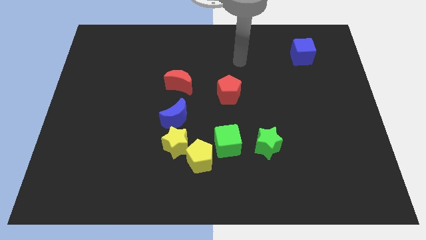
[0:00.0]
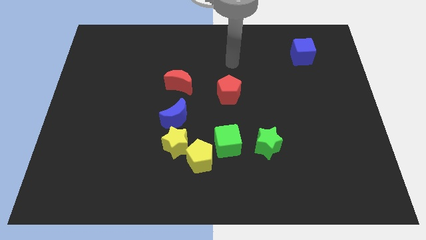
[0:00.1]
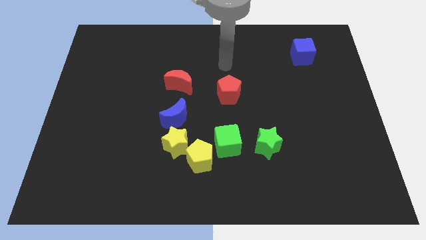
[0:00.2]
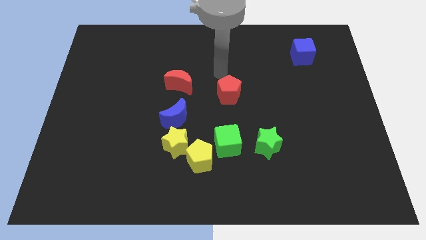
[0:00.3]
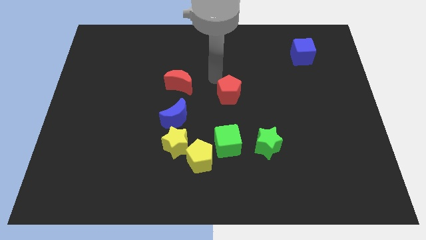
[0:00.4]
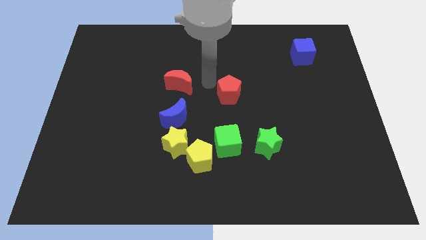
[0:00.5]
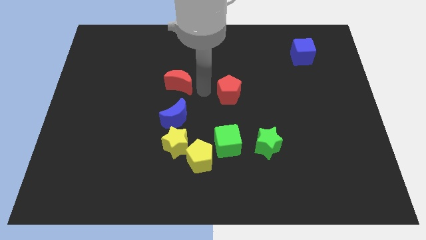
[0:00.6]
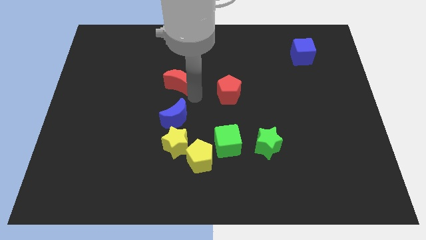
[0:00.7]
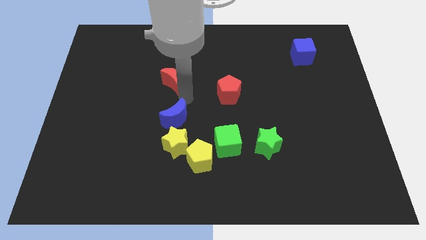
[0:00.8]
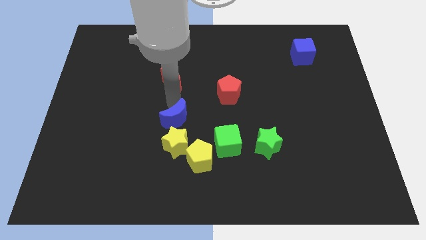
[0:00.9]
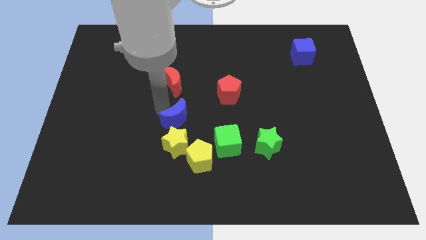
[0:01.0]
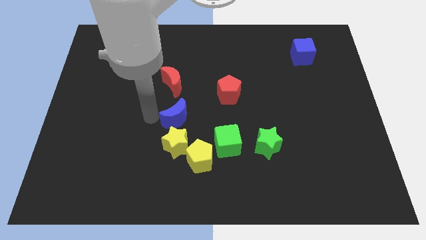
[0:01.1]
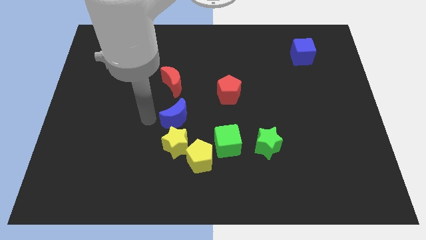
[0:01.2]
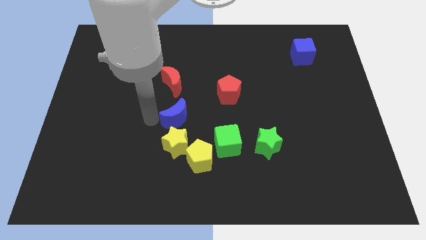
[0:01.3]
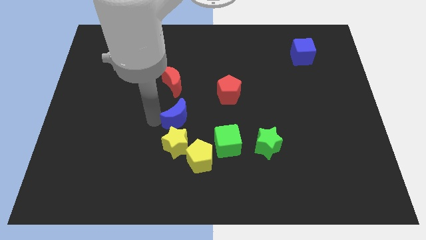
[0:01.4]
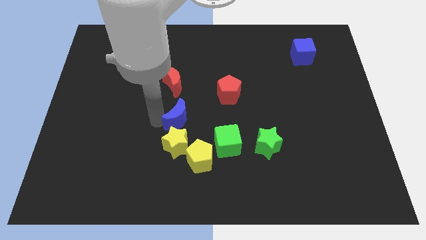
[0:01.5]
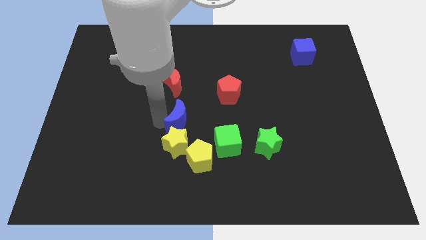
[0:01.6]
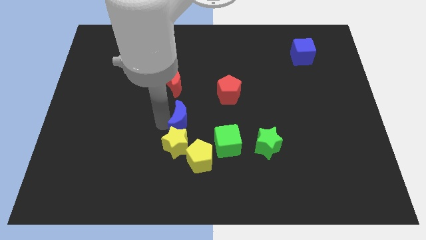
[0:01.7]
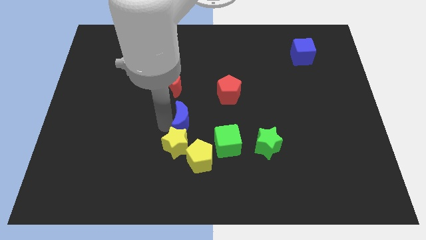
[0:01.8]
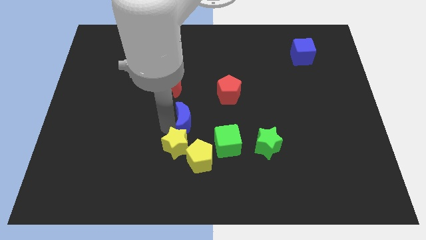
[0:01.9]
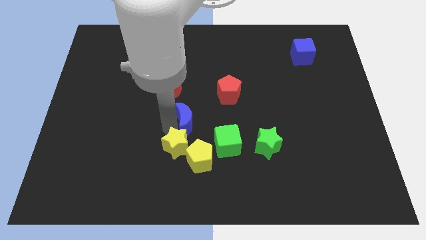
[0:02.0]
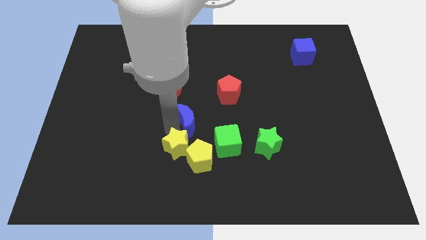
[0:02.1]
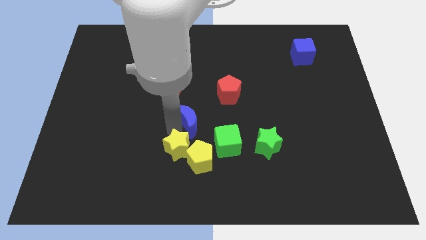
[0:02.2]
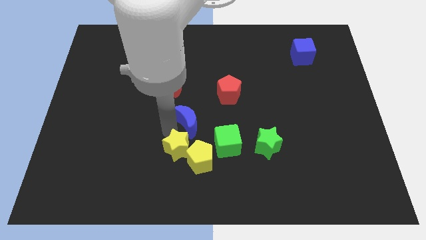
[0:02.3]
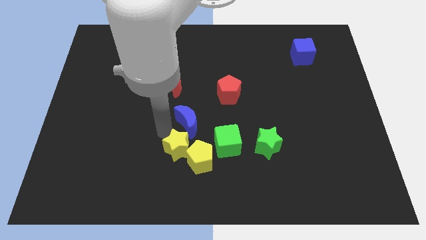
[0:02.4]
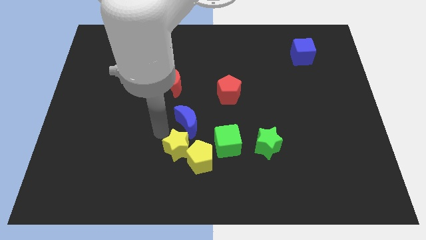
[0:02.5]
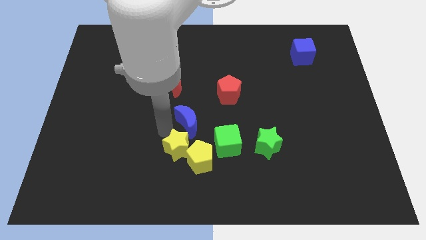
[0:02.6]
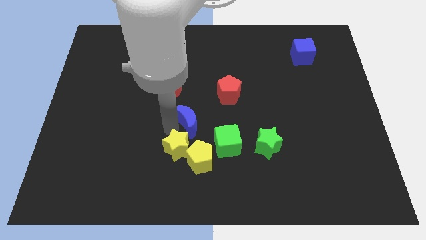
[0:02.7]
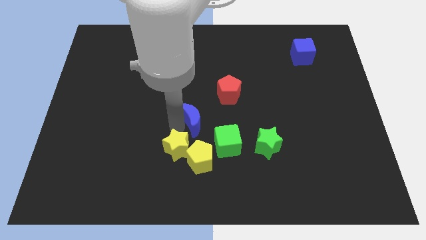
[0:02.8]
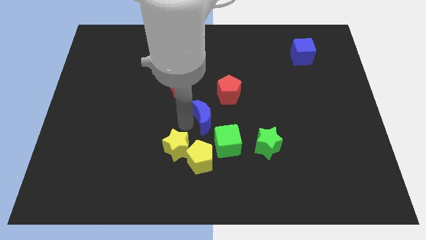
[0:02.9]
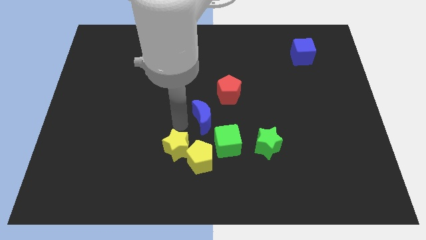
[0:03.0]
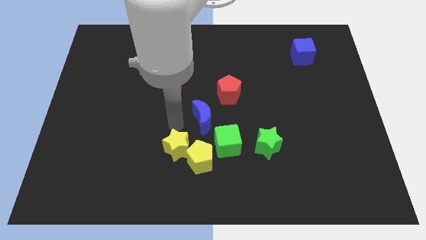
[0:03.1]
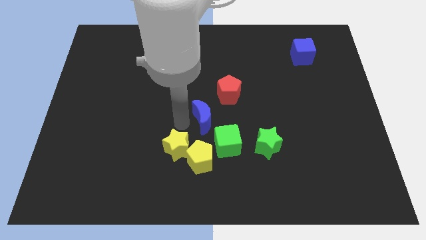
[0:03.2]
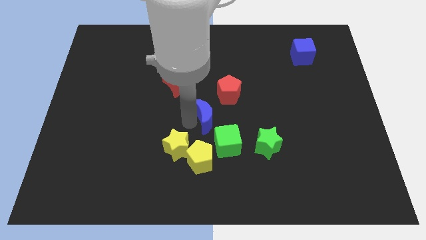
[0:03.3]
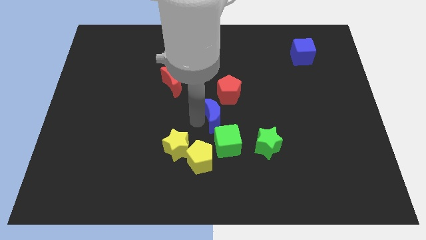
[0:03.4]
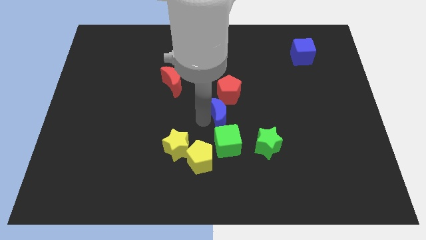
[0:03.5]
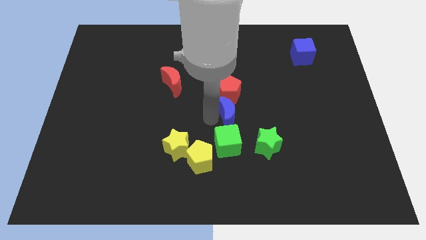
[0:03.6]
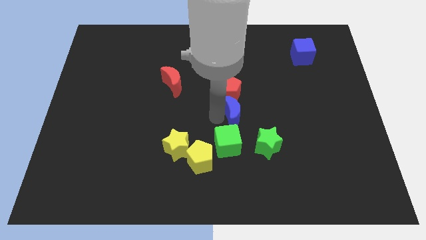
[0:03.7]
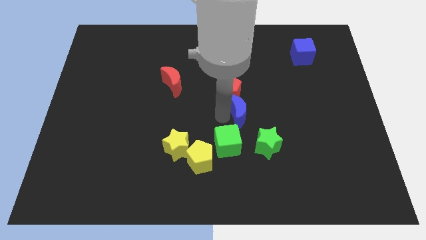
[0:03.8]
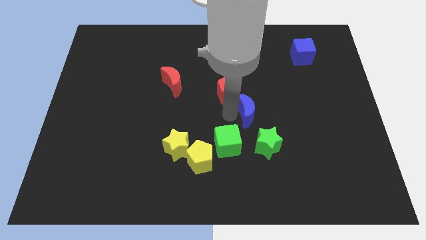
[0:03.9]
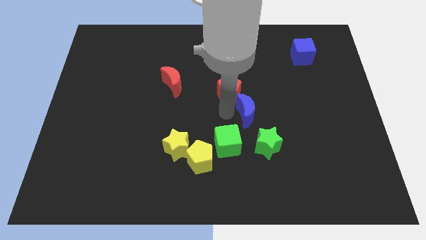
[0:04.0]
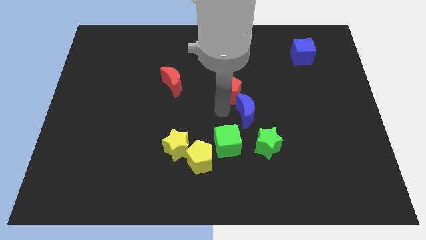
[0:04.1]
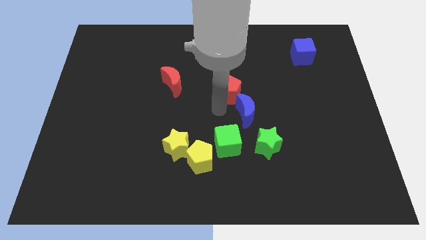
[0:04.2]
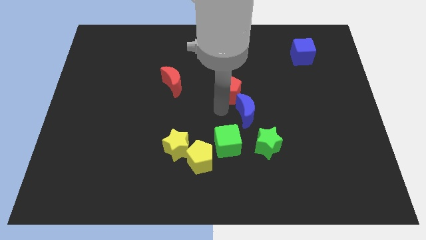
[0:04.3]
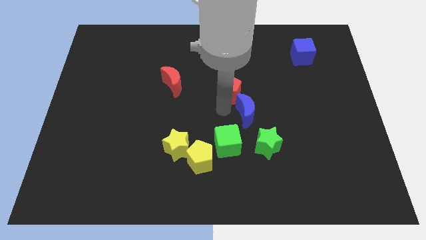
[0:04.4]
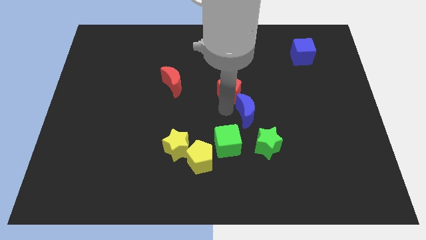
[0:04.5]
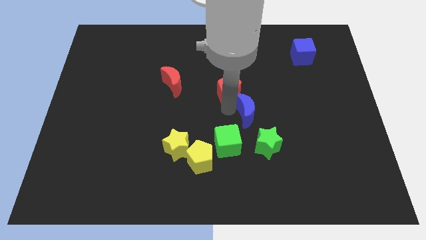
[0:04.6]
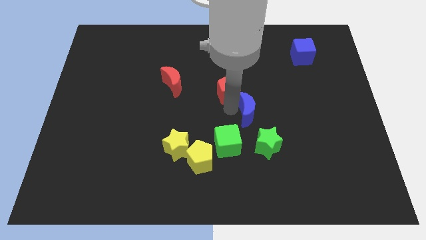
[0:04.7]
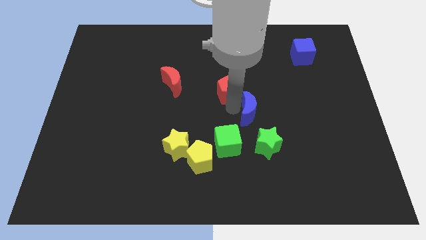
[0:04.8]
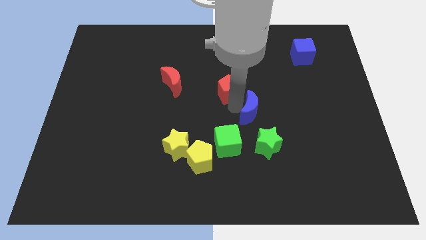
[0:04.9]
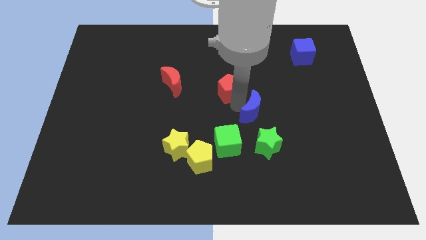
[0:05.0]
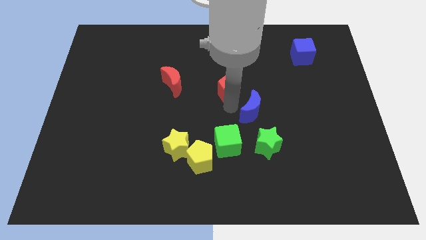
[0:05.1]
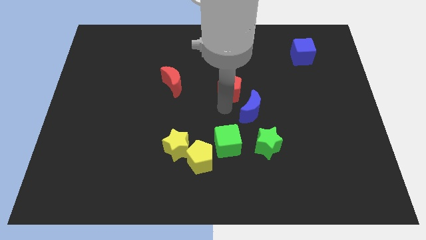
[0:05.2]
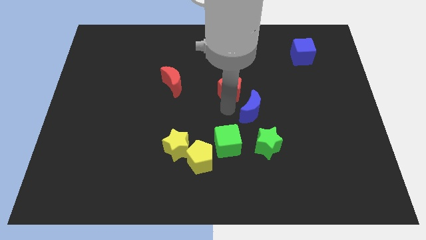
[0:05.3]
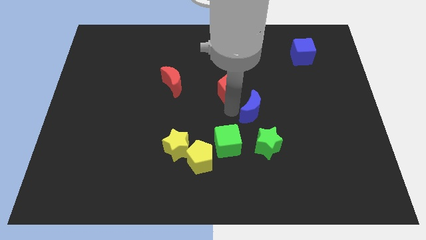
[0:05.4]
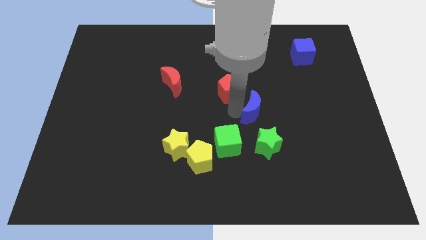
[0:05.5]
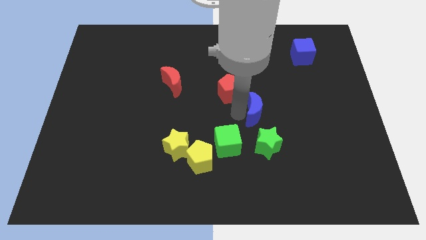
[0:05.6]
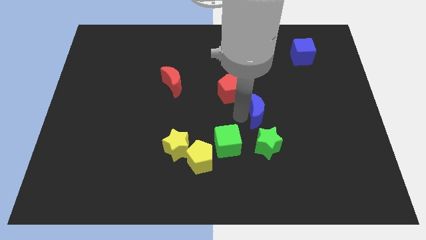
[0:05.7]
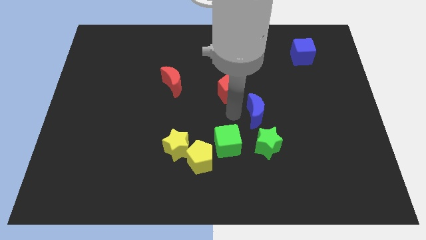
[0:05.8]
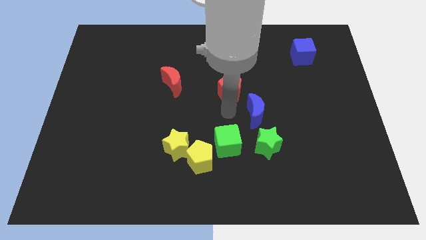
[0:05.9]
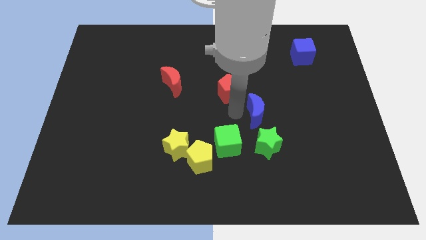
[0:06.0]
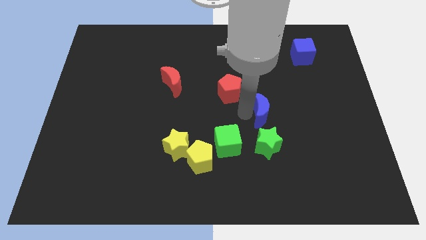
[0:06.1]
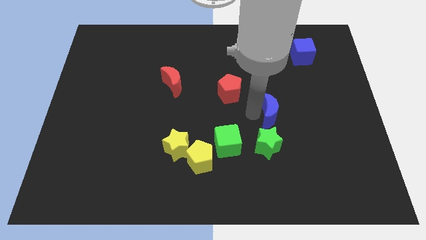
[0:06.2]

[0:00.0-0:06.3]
move the blue moon to the right

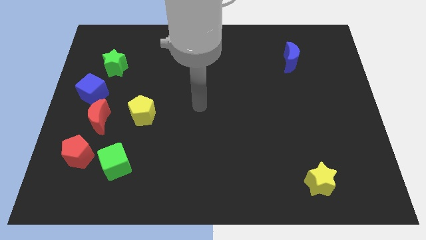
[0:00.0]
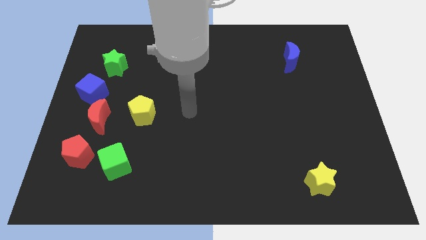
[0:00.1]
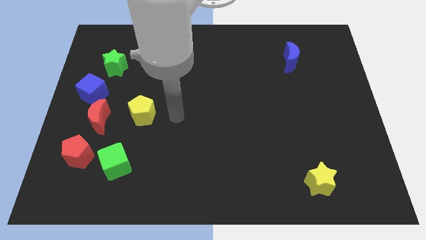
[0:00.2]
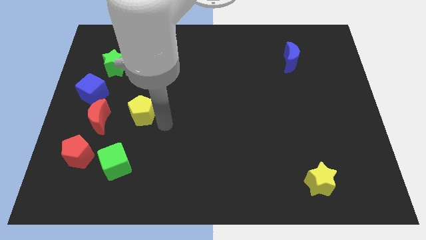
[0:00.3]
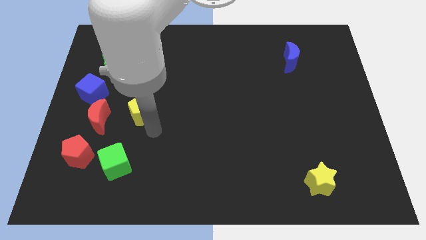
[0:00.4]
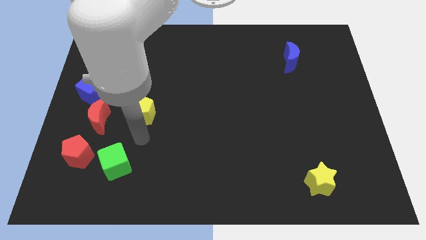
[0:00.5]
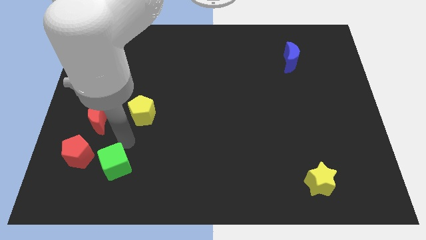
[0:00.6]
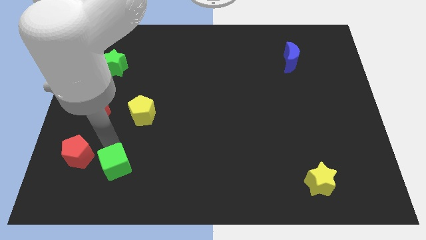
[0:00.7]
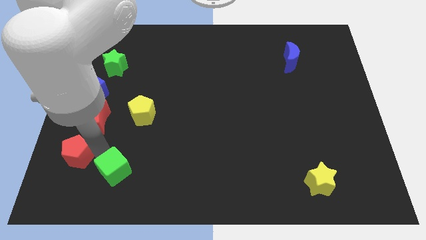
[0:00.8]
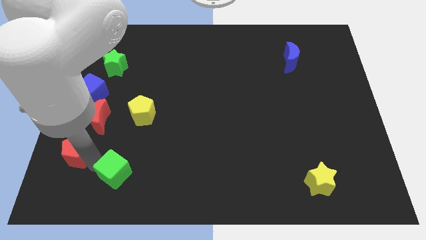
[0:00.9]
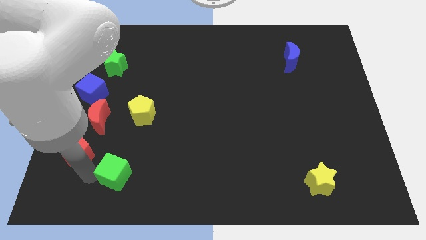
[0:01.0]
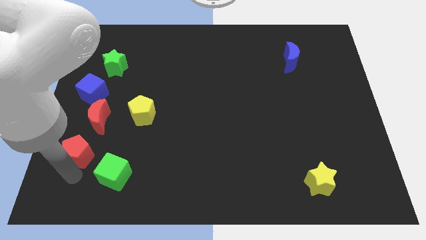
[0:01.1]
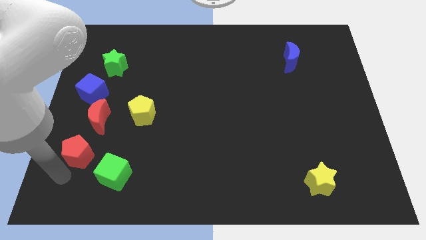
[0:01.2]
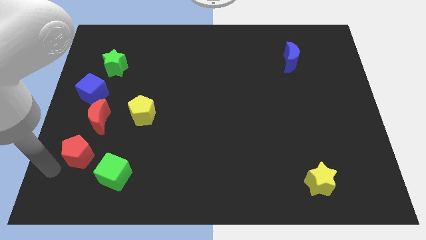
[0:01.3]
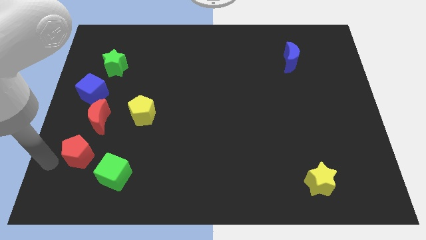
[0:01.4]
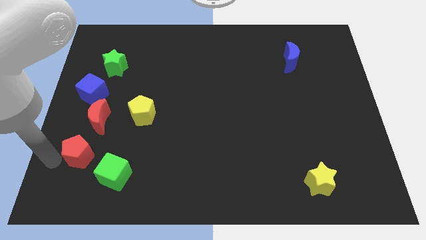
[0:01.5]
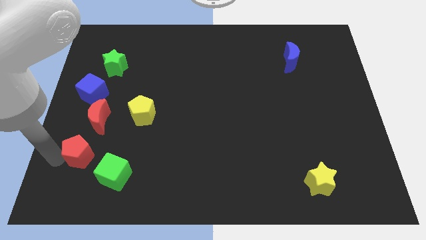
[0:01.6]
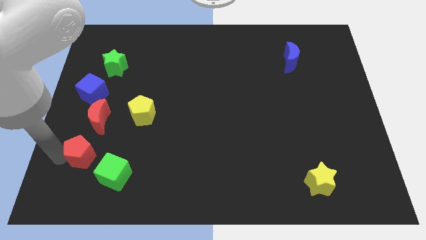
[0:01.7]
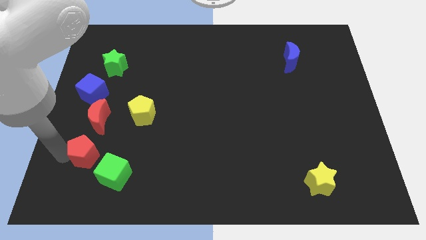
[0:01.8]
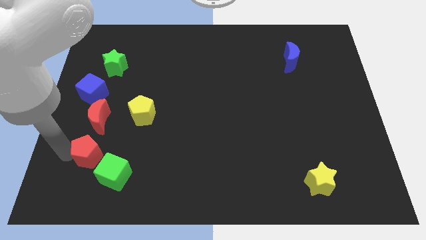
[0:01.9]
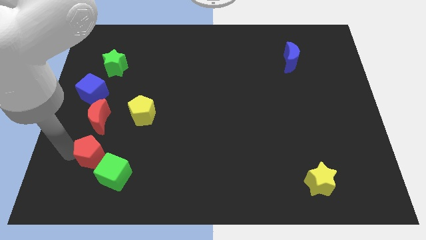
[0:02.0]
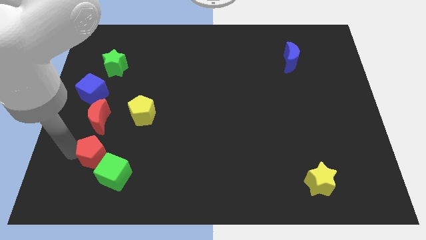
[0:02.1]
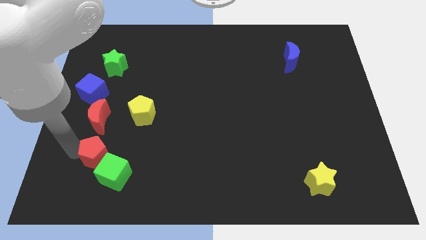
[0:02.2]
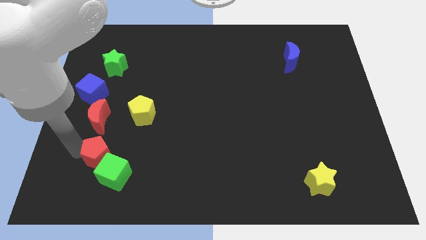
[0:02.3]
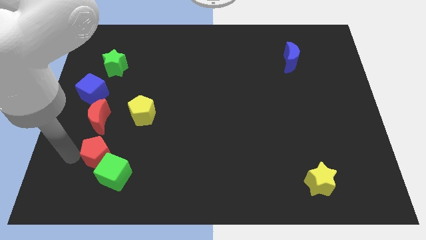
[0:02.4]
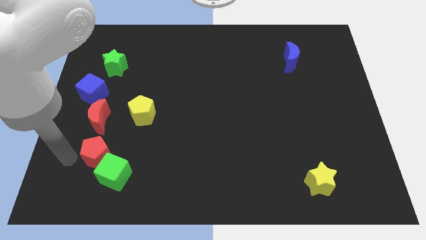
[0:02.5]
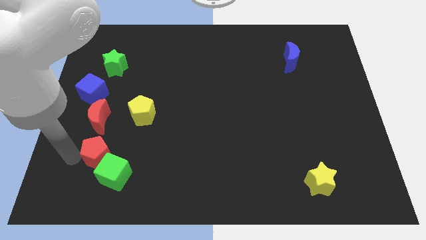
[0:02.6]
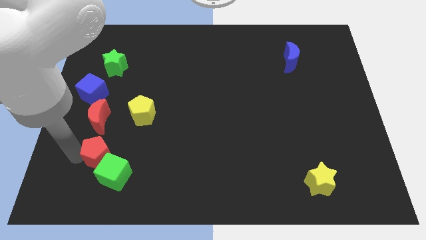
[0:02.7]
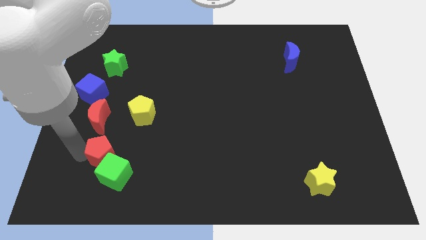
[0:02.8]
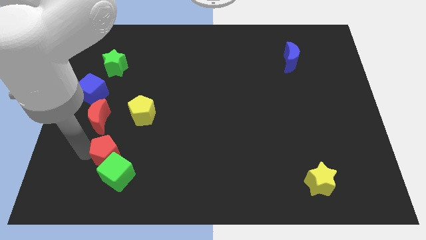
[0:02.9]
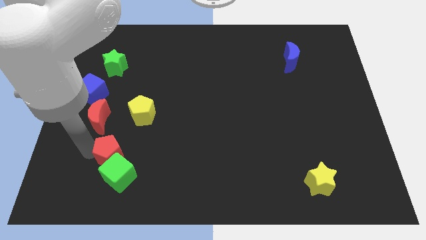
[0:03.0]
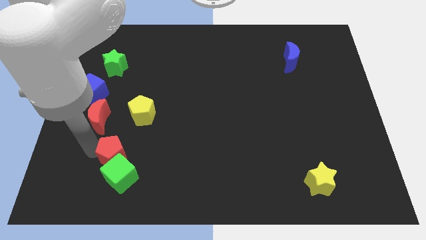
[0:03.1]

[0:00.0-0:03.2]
slide the red pentagon a bit right
